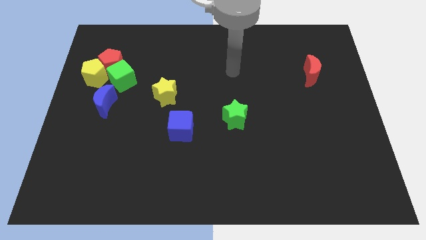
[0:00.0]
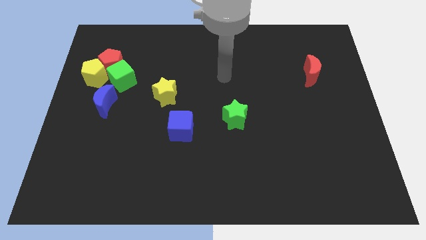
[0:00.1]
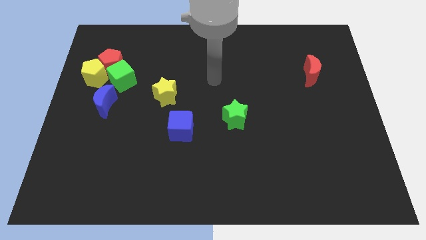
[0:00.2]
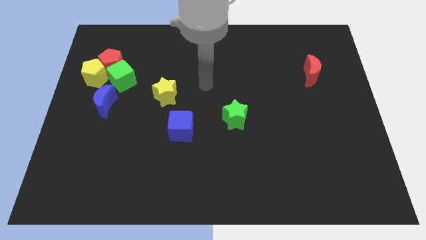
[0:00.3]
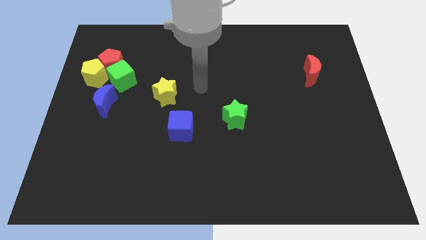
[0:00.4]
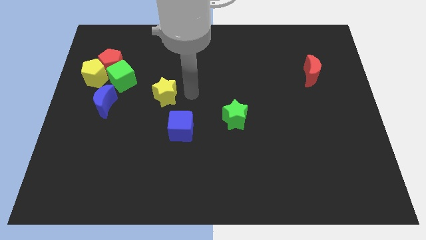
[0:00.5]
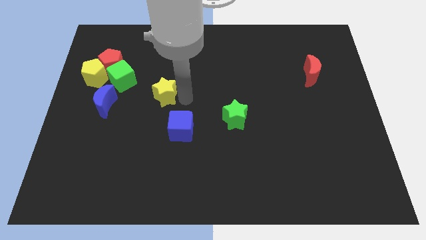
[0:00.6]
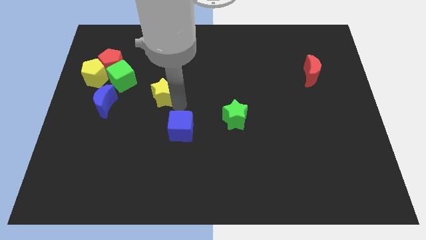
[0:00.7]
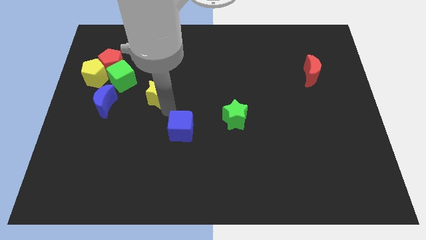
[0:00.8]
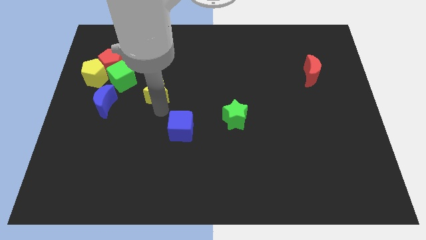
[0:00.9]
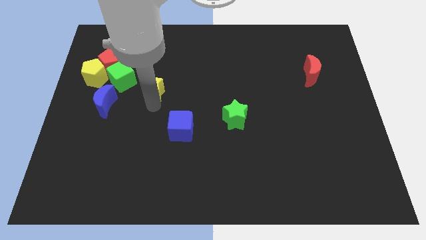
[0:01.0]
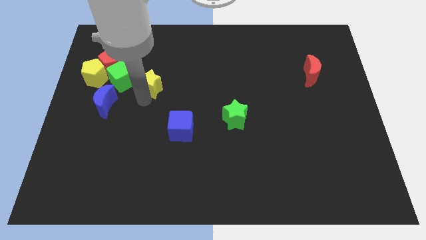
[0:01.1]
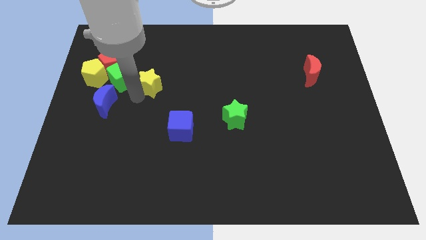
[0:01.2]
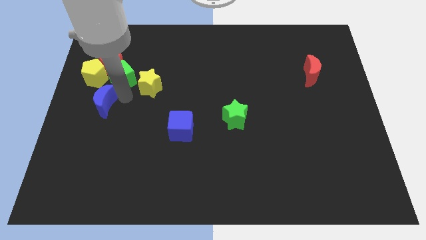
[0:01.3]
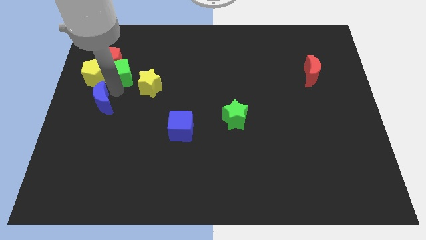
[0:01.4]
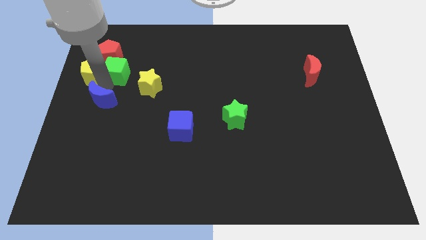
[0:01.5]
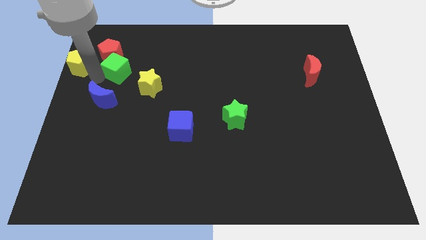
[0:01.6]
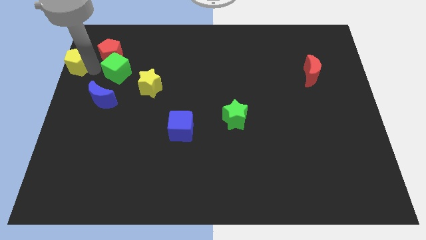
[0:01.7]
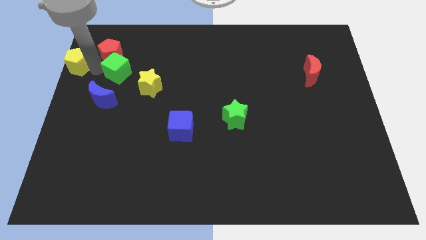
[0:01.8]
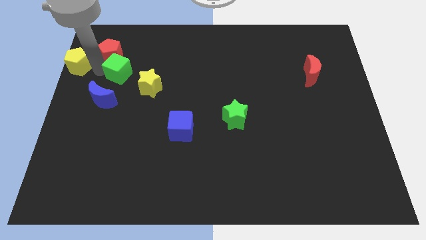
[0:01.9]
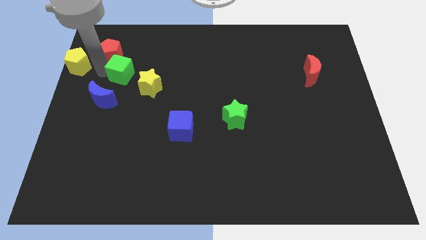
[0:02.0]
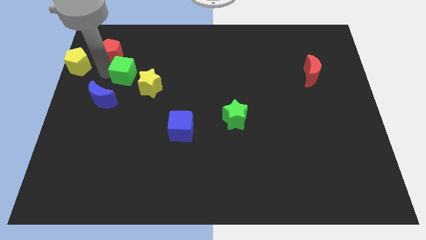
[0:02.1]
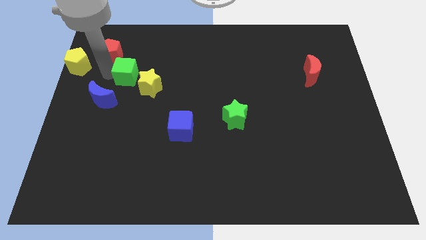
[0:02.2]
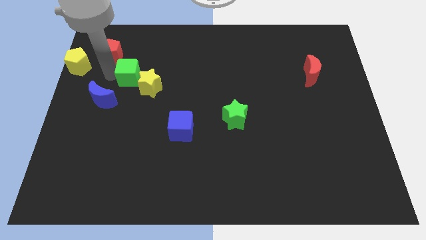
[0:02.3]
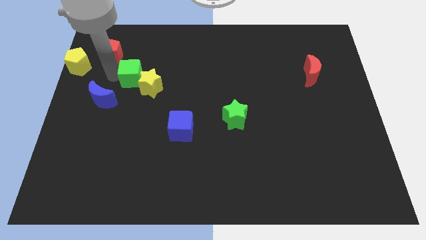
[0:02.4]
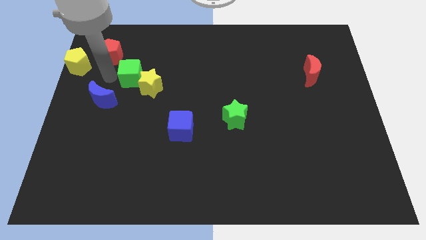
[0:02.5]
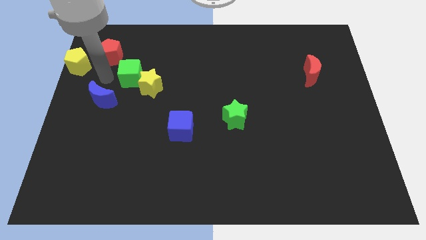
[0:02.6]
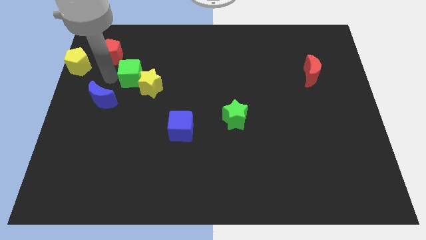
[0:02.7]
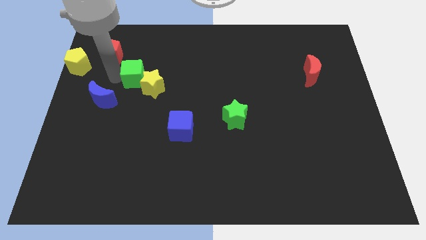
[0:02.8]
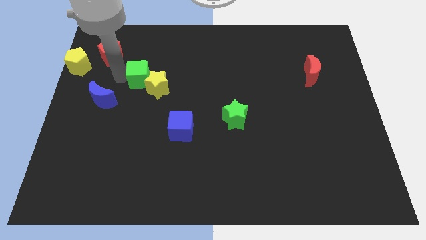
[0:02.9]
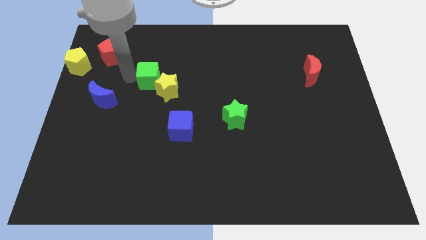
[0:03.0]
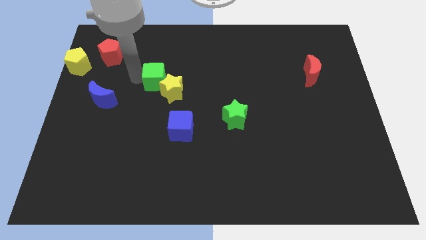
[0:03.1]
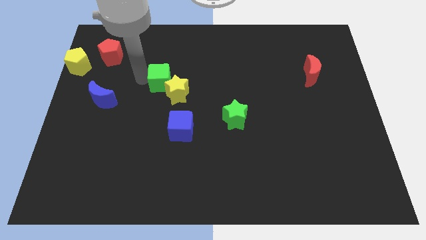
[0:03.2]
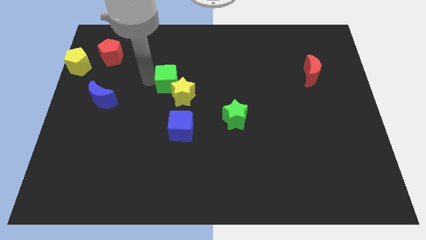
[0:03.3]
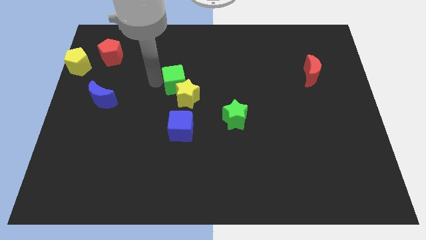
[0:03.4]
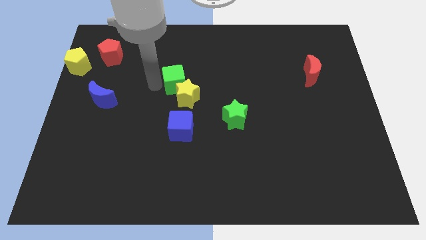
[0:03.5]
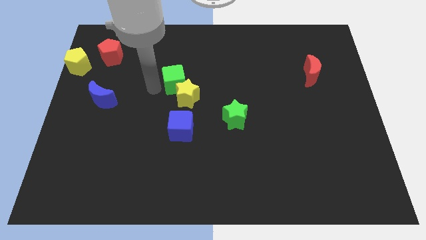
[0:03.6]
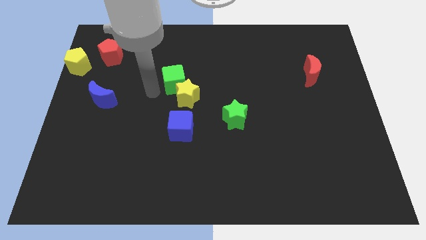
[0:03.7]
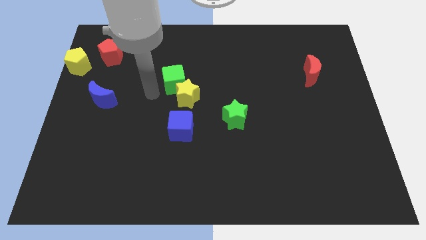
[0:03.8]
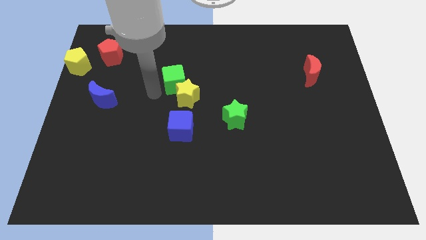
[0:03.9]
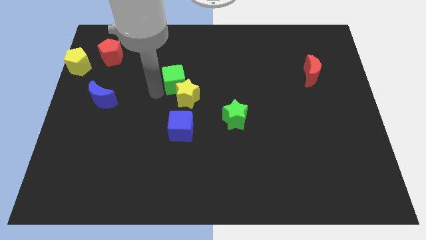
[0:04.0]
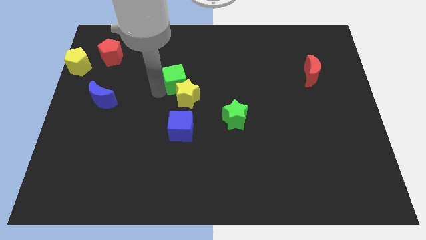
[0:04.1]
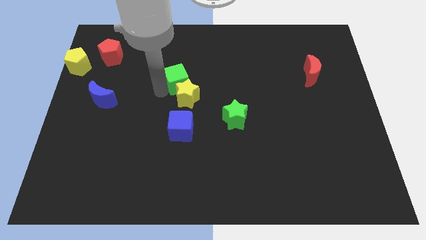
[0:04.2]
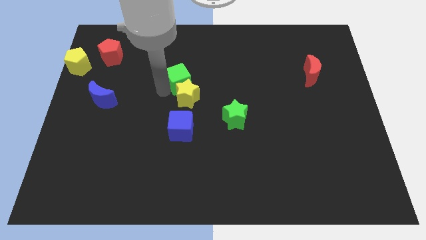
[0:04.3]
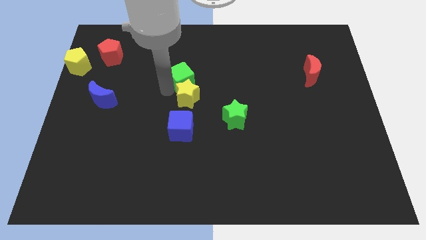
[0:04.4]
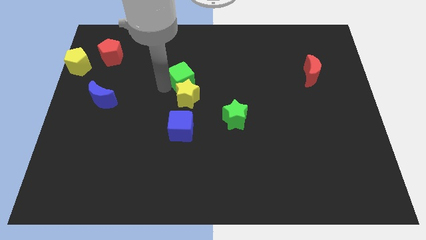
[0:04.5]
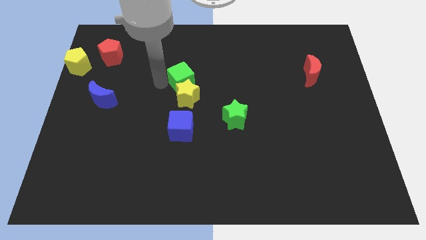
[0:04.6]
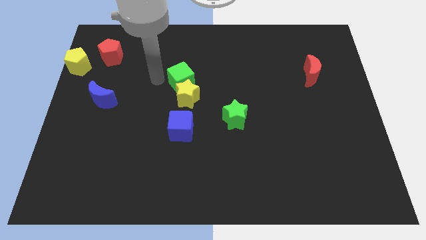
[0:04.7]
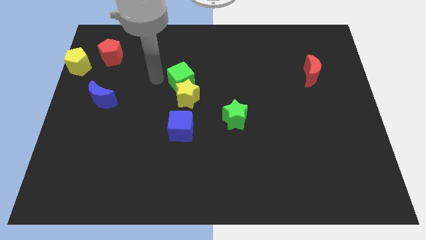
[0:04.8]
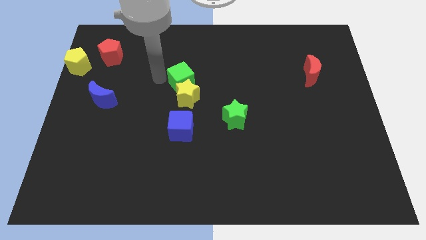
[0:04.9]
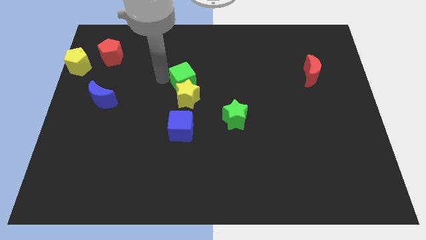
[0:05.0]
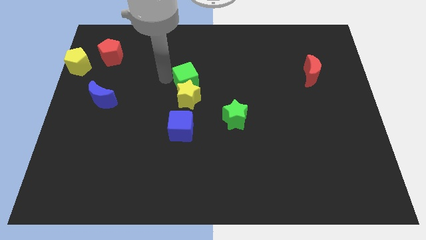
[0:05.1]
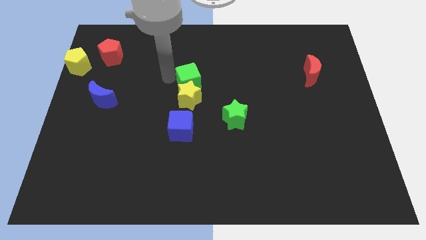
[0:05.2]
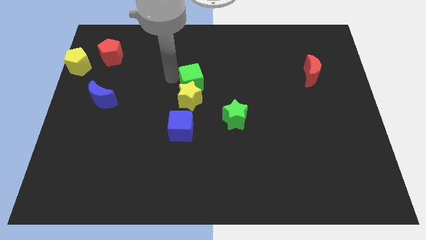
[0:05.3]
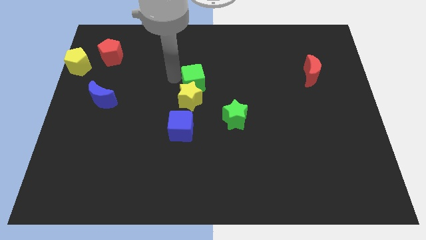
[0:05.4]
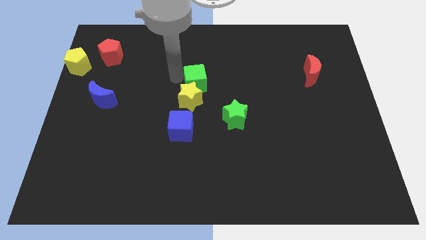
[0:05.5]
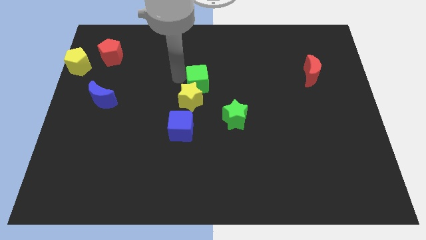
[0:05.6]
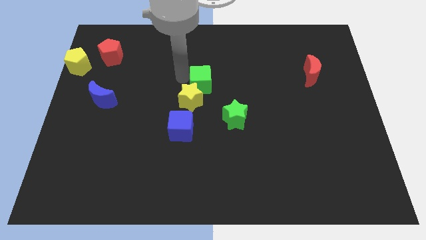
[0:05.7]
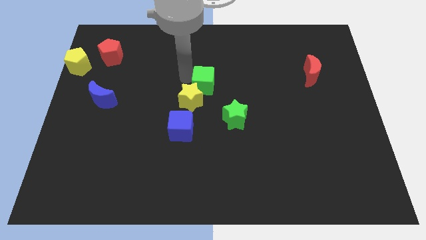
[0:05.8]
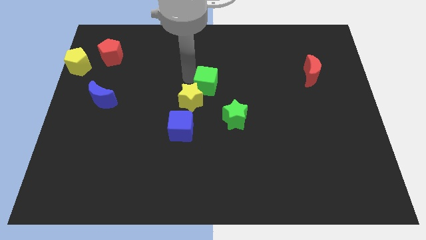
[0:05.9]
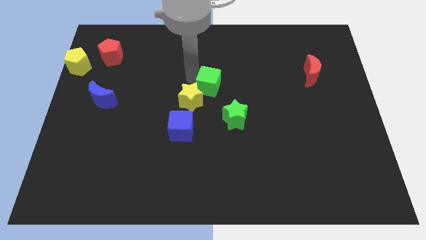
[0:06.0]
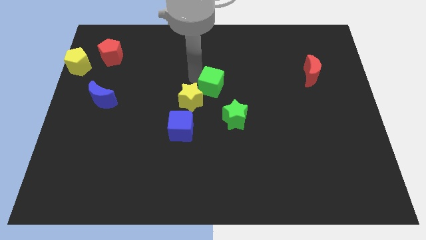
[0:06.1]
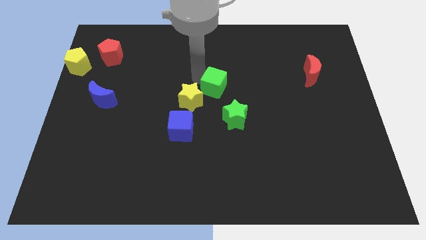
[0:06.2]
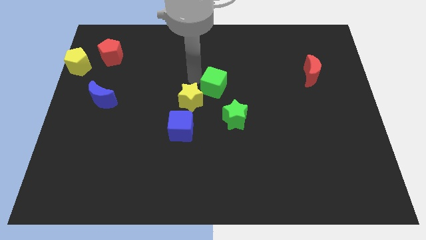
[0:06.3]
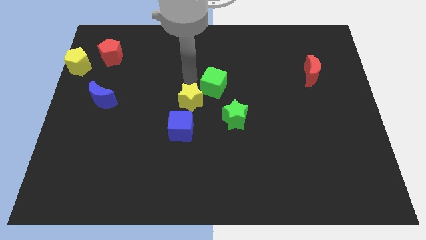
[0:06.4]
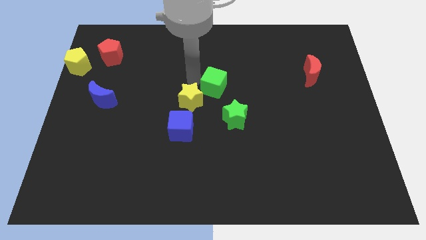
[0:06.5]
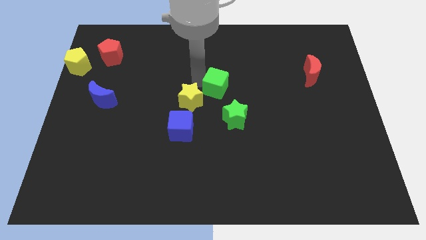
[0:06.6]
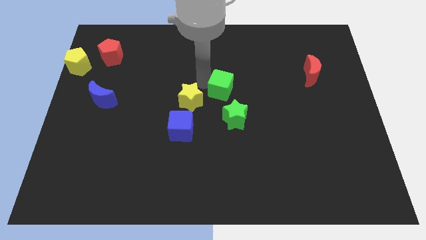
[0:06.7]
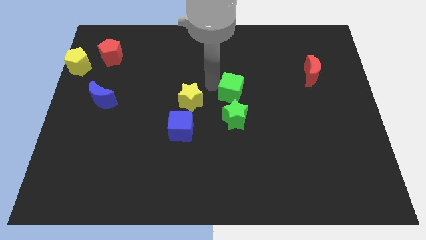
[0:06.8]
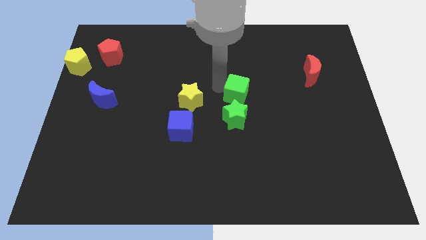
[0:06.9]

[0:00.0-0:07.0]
move the green cube to the top right side of the green star

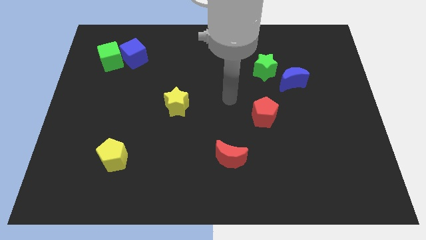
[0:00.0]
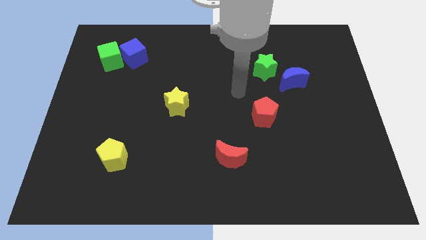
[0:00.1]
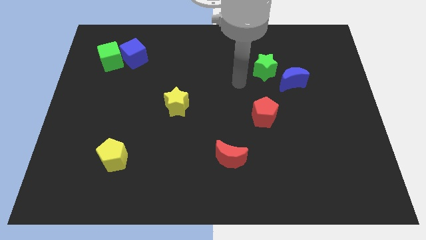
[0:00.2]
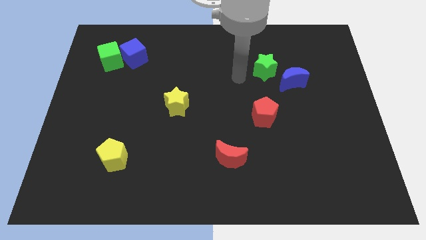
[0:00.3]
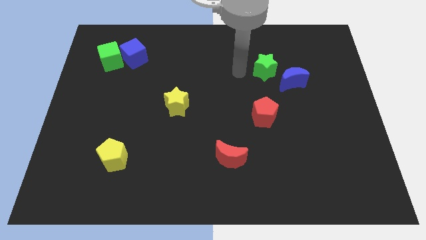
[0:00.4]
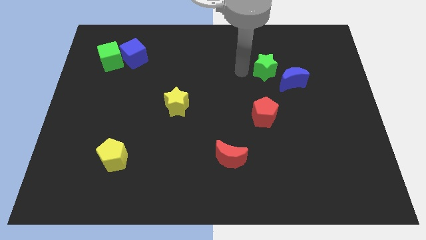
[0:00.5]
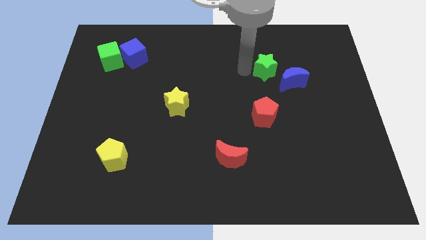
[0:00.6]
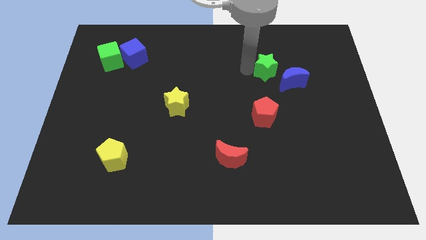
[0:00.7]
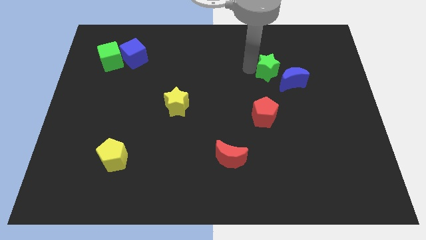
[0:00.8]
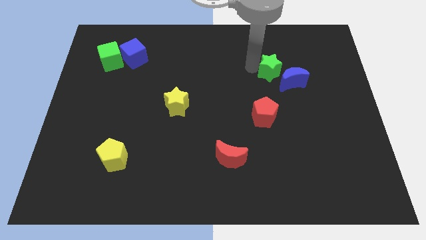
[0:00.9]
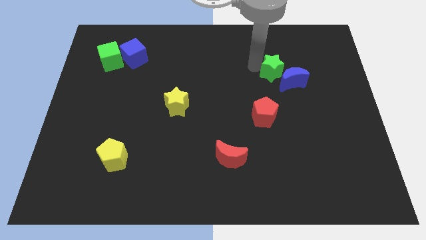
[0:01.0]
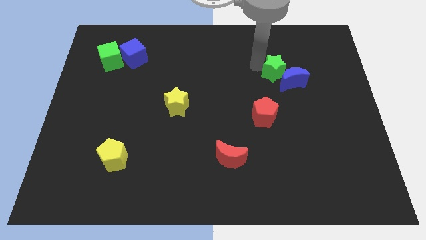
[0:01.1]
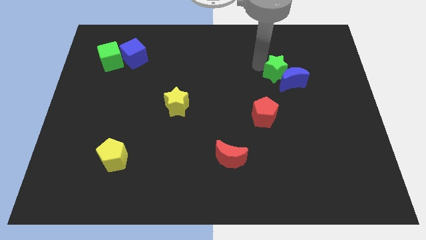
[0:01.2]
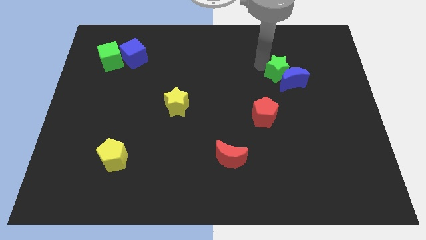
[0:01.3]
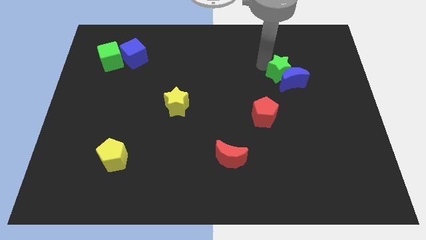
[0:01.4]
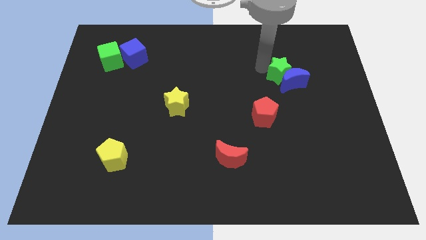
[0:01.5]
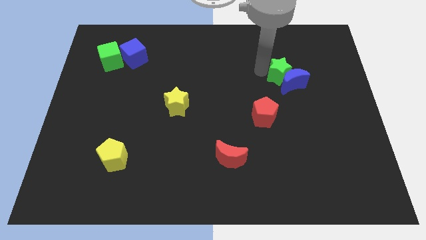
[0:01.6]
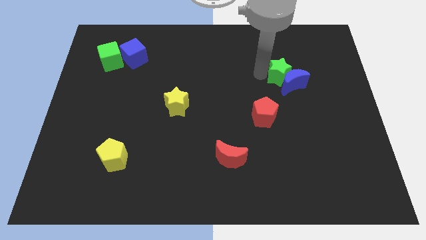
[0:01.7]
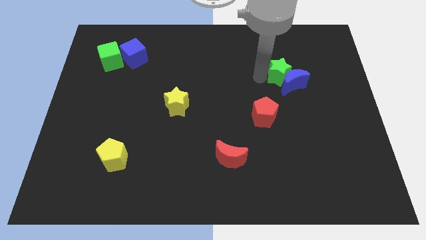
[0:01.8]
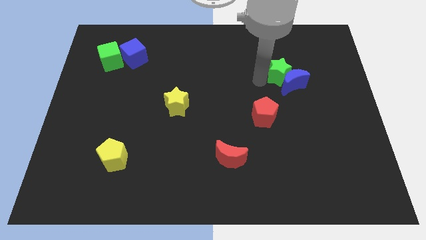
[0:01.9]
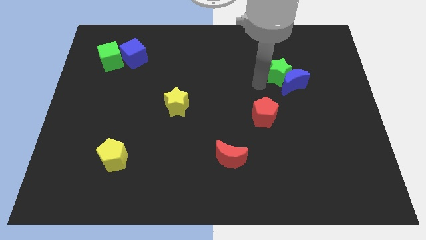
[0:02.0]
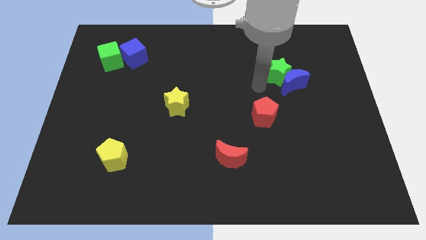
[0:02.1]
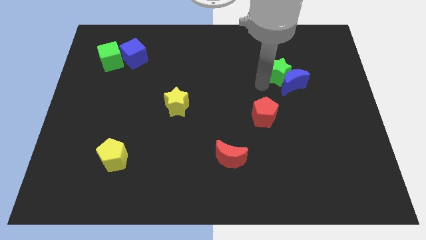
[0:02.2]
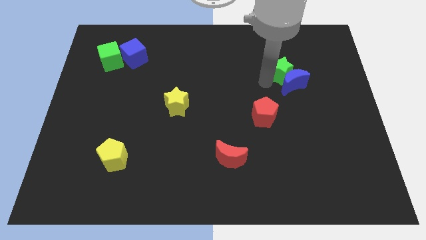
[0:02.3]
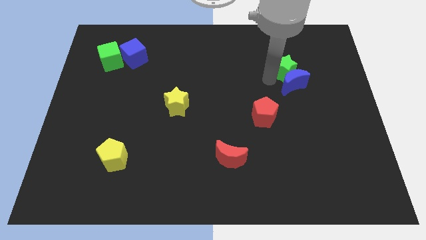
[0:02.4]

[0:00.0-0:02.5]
put the green star diagonally up and to the right of the blue moon
